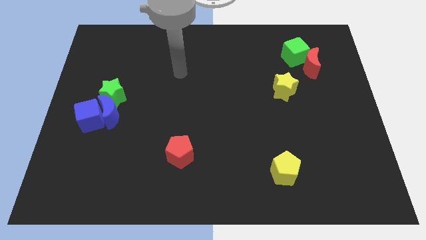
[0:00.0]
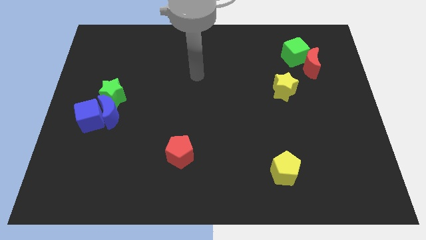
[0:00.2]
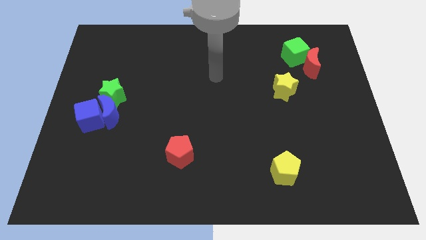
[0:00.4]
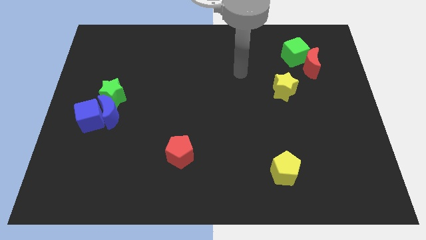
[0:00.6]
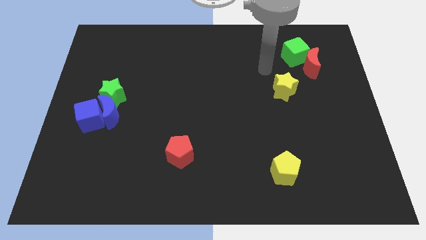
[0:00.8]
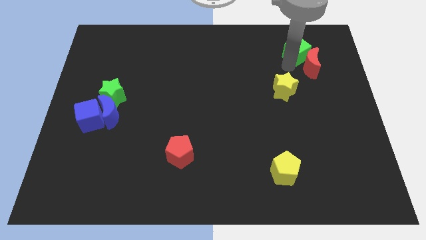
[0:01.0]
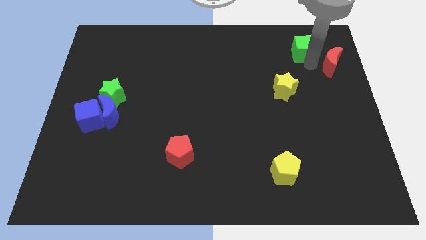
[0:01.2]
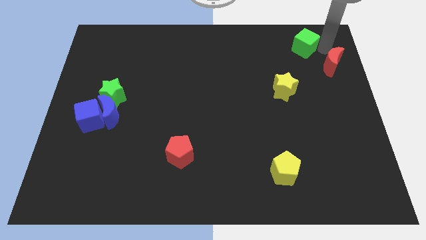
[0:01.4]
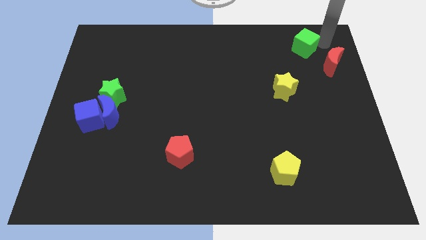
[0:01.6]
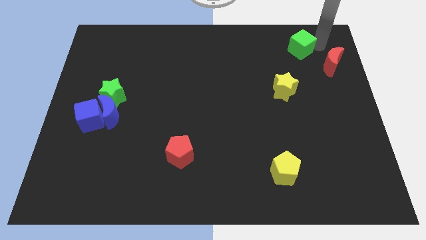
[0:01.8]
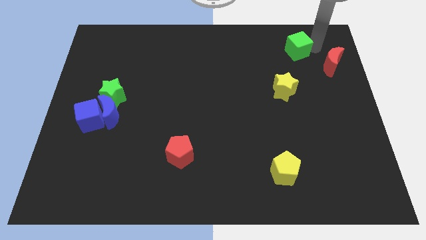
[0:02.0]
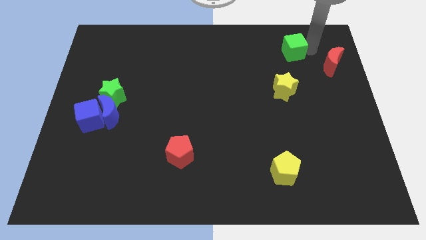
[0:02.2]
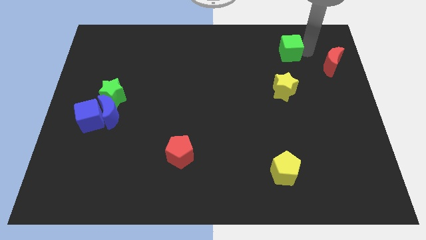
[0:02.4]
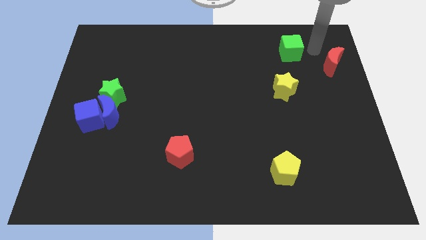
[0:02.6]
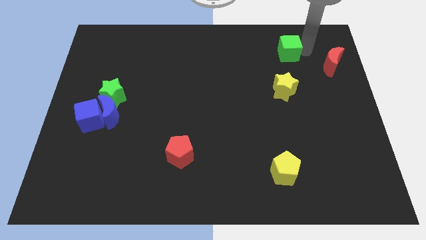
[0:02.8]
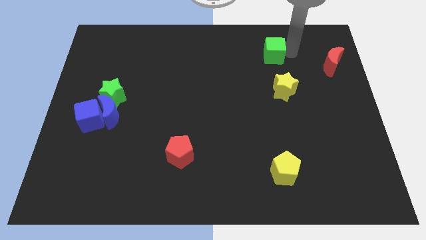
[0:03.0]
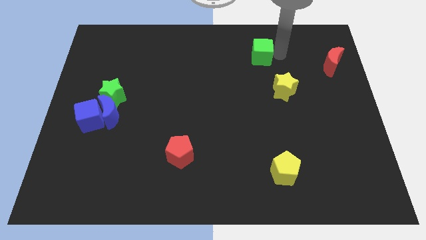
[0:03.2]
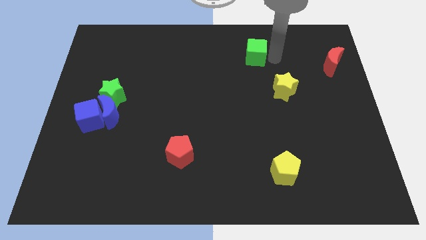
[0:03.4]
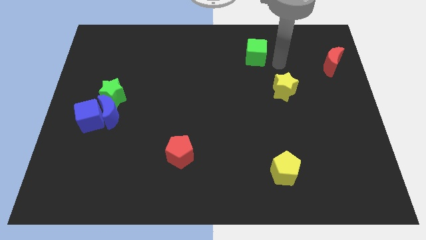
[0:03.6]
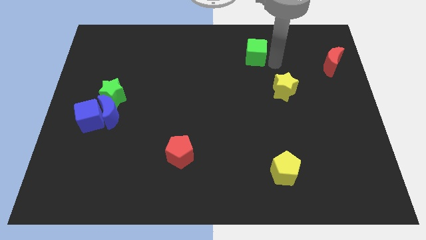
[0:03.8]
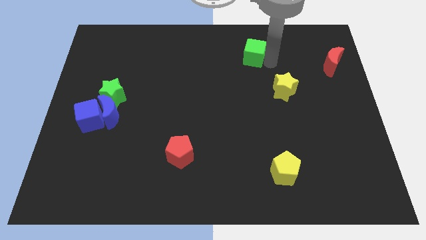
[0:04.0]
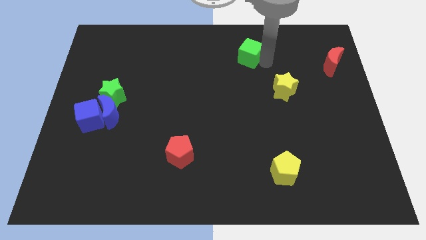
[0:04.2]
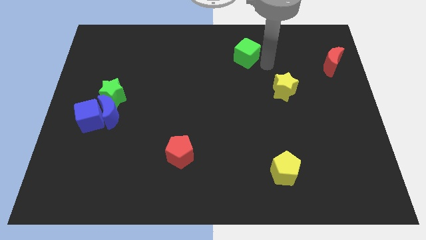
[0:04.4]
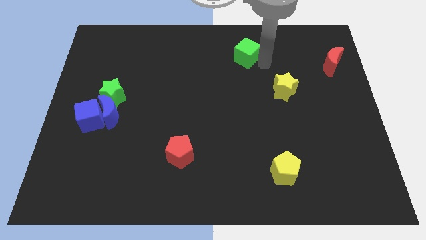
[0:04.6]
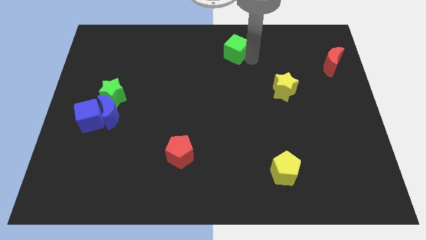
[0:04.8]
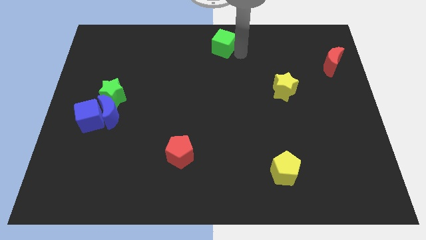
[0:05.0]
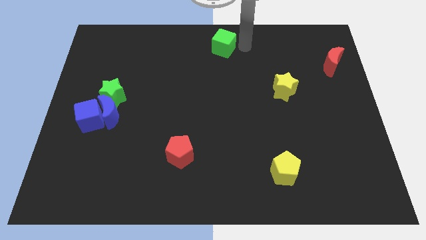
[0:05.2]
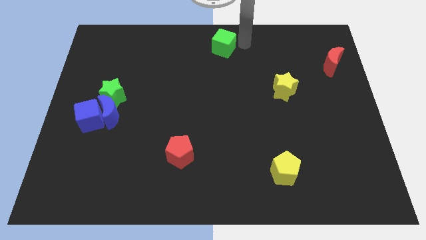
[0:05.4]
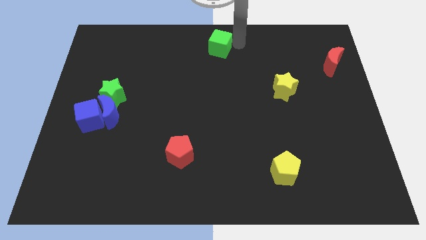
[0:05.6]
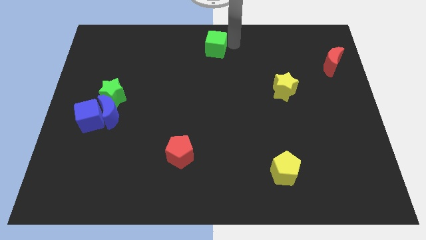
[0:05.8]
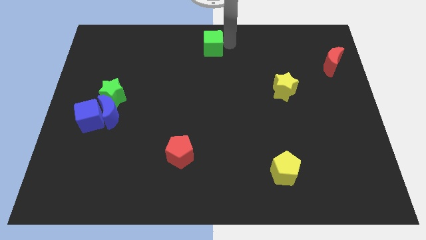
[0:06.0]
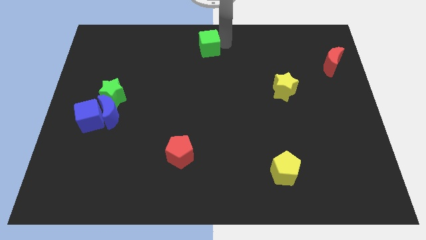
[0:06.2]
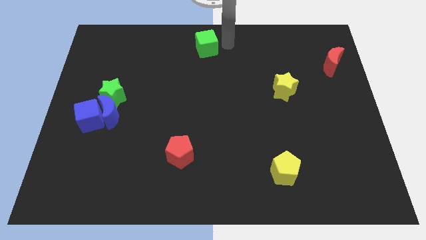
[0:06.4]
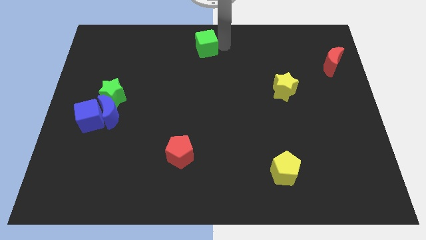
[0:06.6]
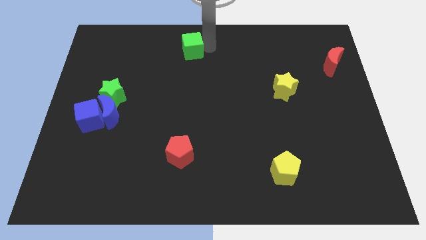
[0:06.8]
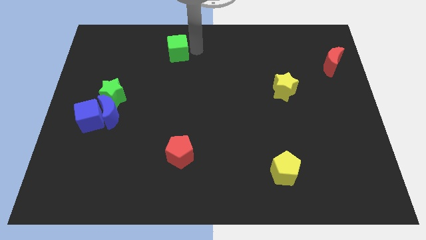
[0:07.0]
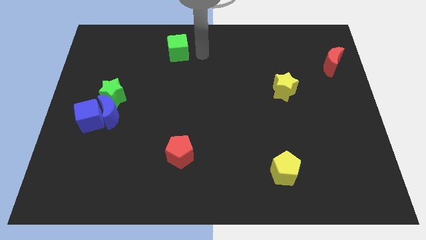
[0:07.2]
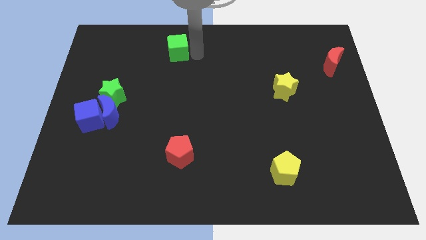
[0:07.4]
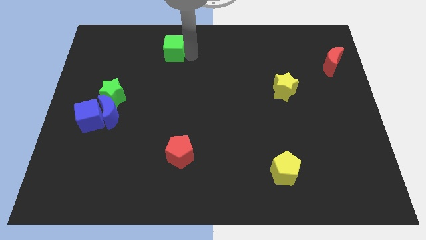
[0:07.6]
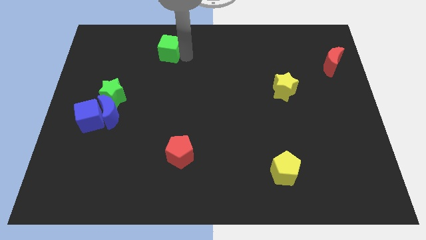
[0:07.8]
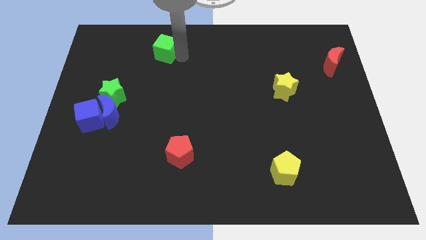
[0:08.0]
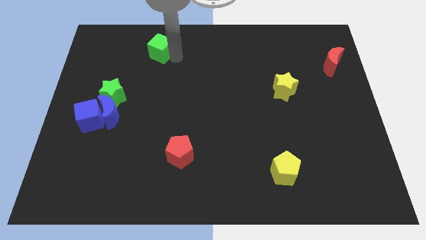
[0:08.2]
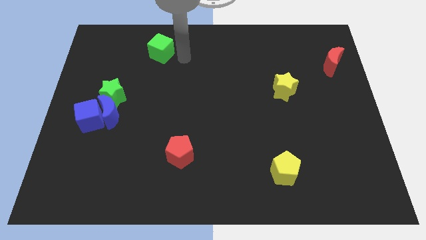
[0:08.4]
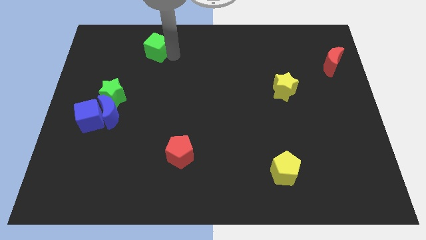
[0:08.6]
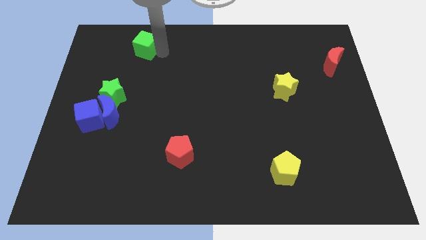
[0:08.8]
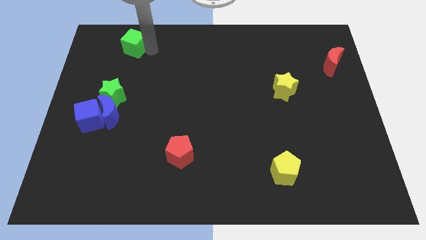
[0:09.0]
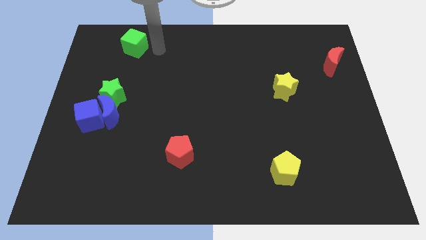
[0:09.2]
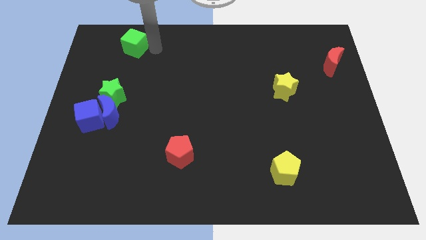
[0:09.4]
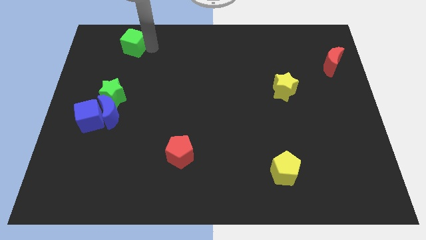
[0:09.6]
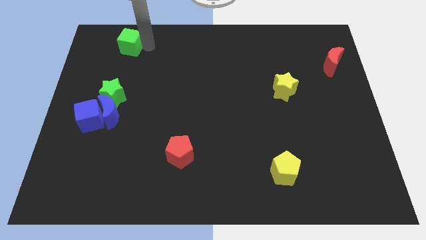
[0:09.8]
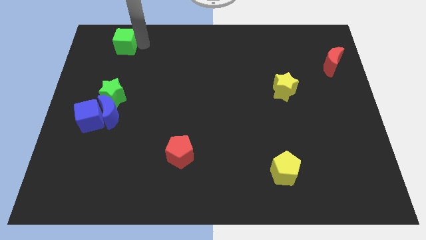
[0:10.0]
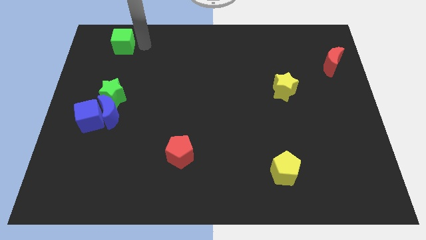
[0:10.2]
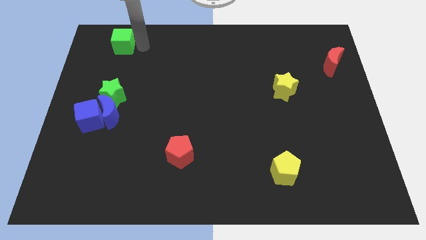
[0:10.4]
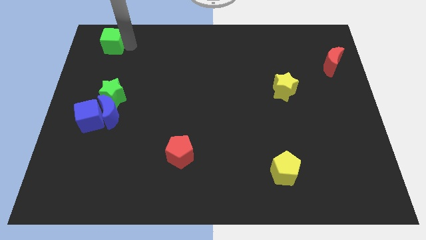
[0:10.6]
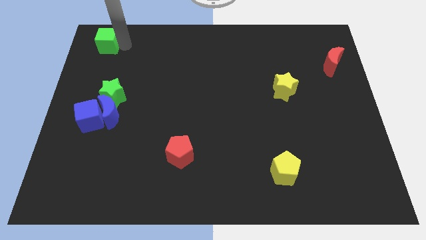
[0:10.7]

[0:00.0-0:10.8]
push the green cube to the top left
